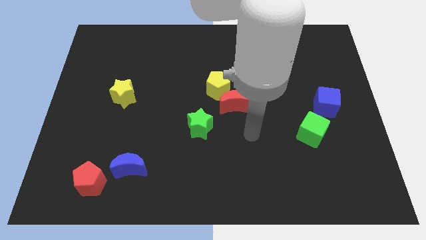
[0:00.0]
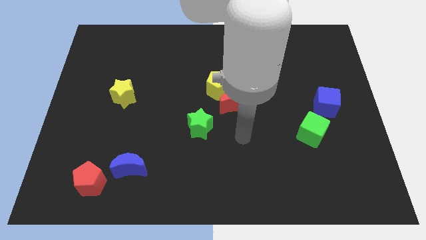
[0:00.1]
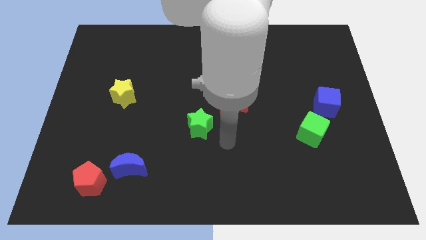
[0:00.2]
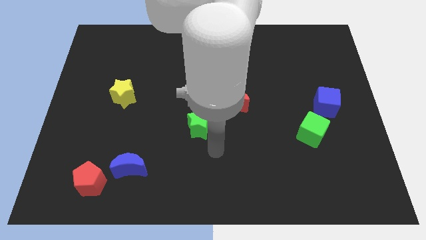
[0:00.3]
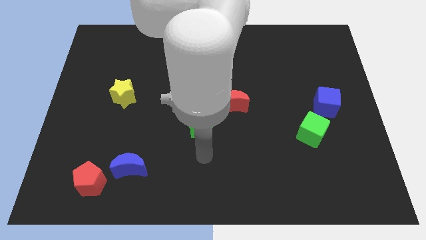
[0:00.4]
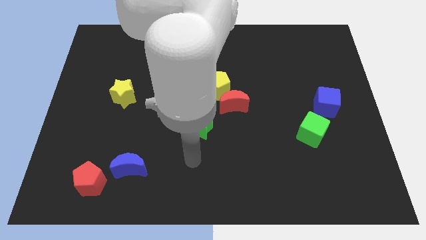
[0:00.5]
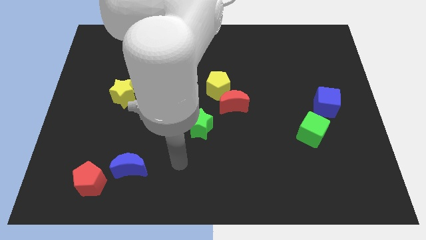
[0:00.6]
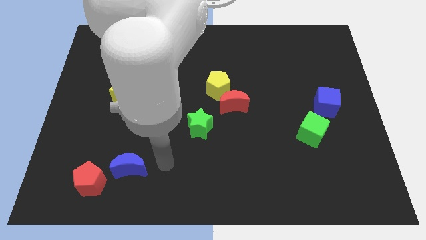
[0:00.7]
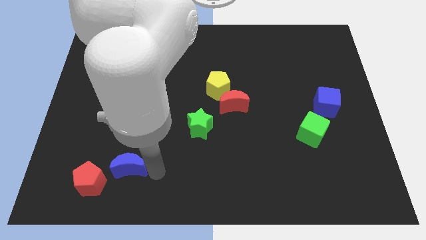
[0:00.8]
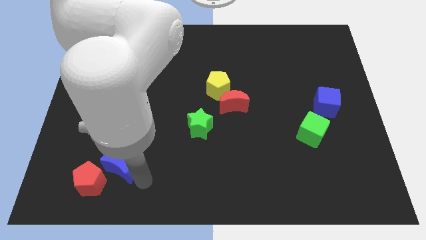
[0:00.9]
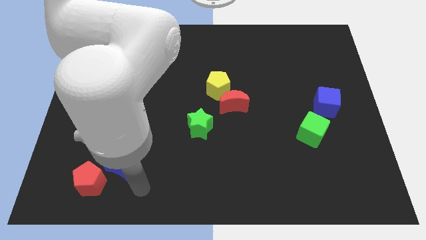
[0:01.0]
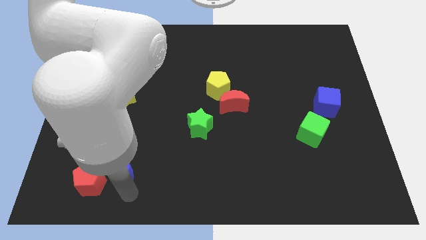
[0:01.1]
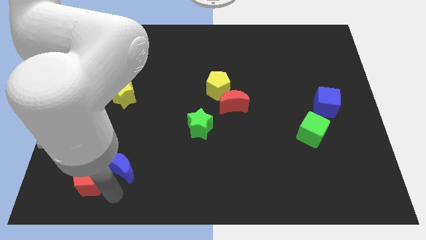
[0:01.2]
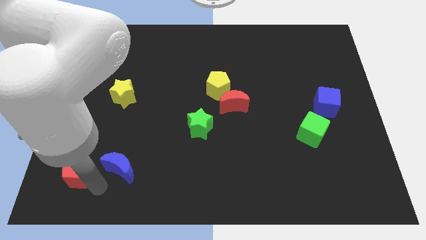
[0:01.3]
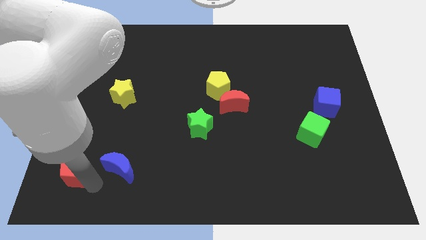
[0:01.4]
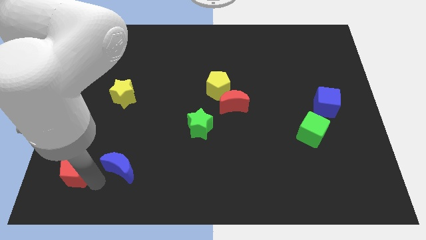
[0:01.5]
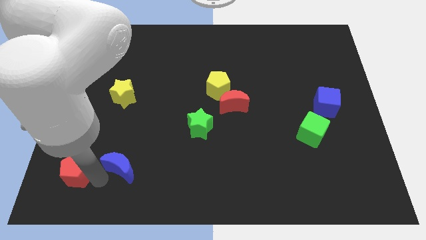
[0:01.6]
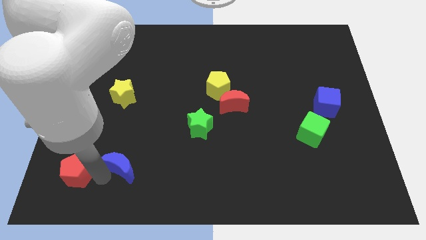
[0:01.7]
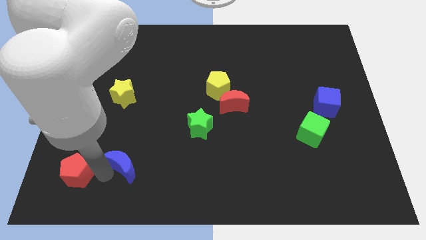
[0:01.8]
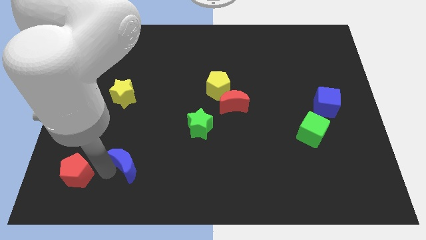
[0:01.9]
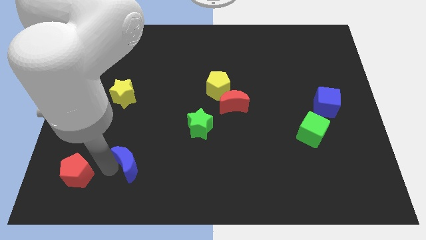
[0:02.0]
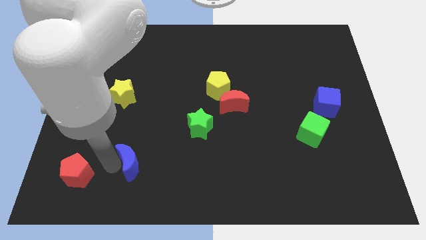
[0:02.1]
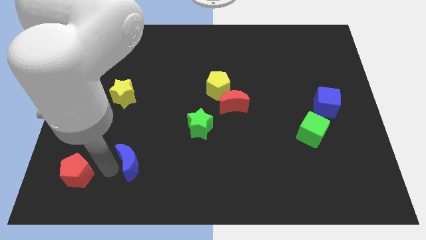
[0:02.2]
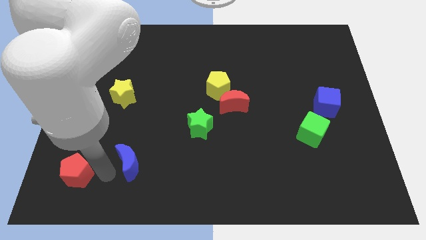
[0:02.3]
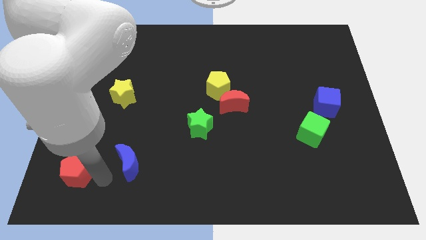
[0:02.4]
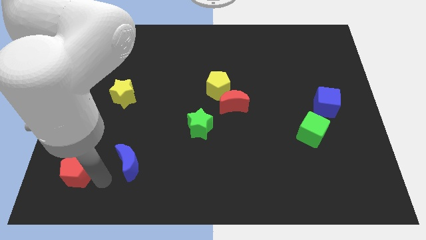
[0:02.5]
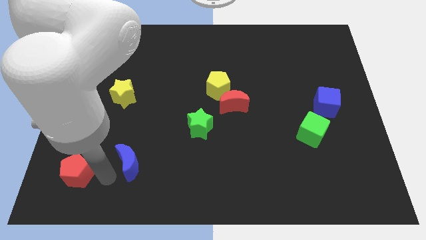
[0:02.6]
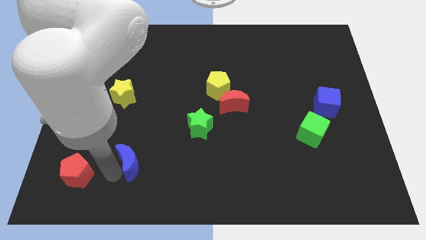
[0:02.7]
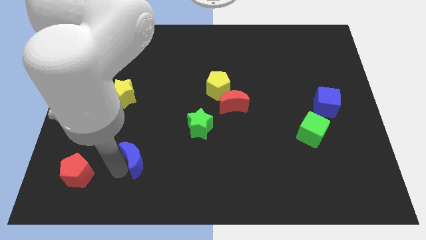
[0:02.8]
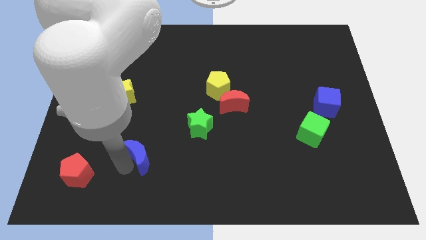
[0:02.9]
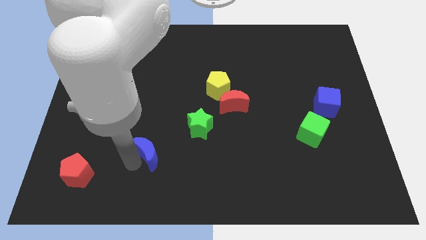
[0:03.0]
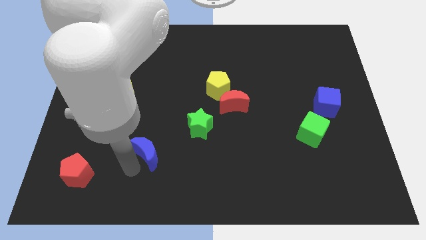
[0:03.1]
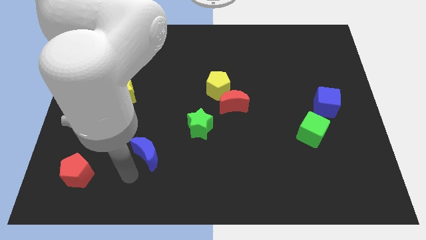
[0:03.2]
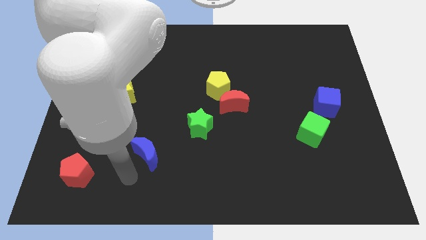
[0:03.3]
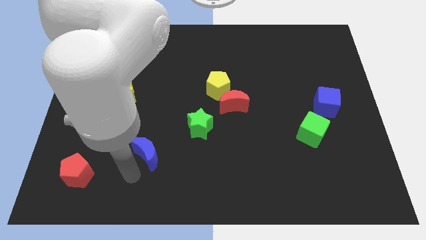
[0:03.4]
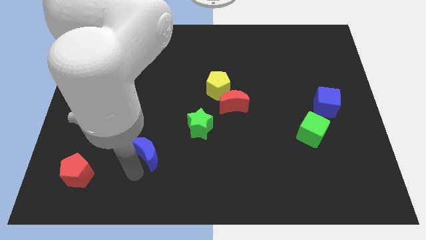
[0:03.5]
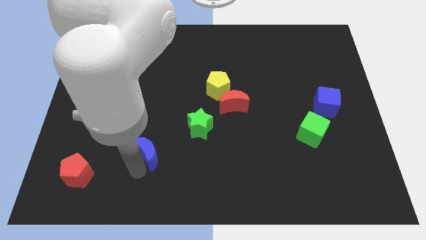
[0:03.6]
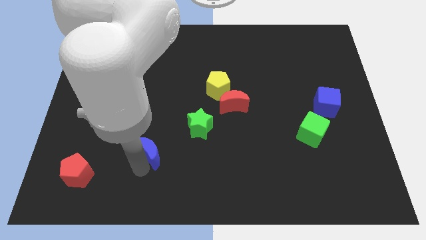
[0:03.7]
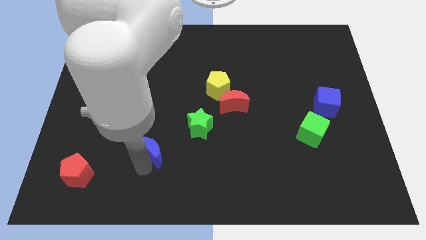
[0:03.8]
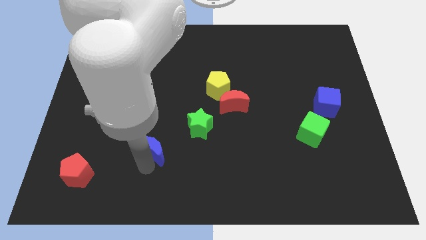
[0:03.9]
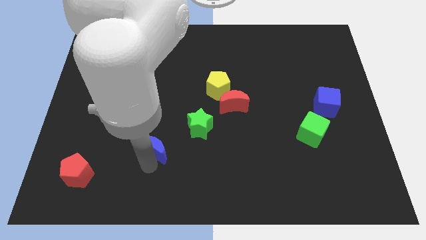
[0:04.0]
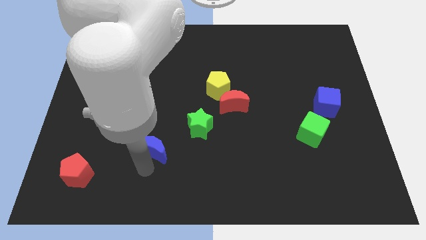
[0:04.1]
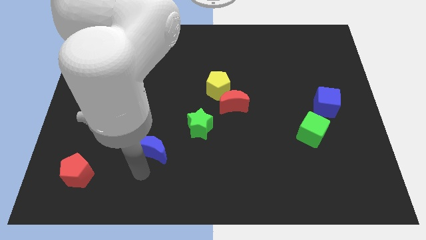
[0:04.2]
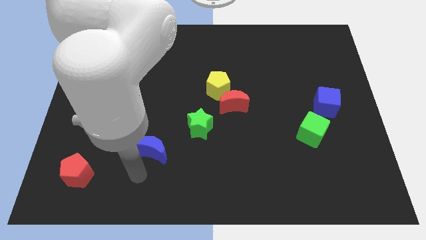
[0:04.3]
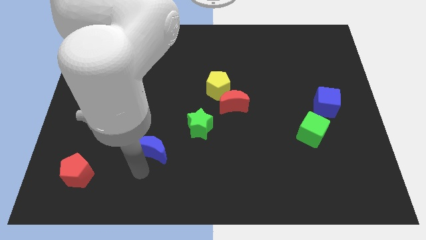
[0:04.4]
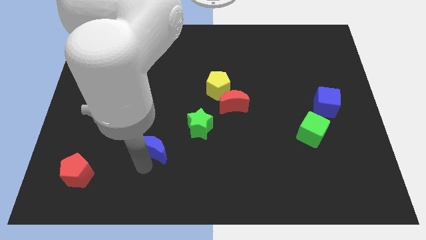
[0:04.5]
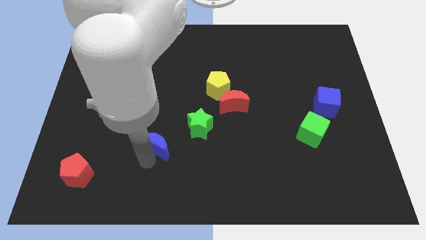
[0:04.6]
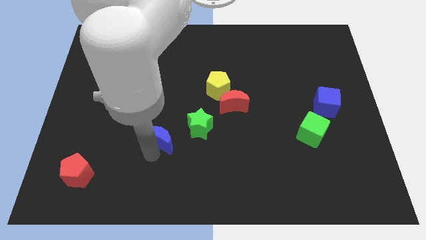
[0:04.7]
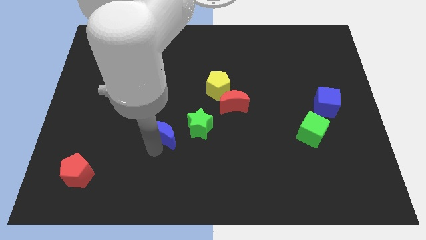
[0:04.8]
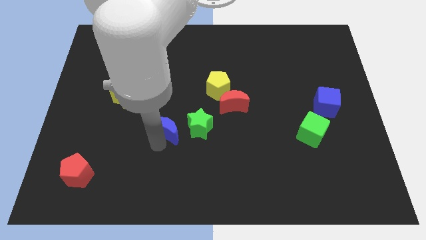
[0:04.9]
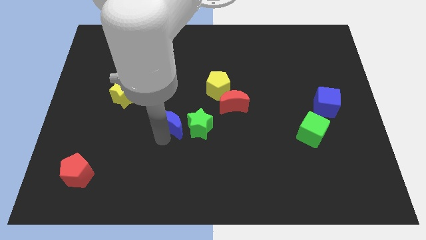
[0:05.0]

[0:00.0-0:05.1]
move the blue moon to the top left side of the green star

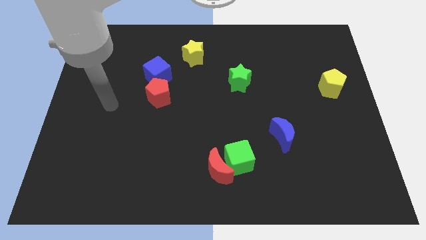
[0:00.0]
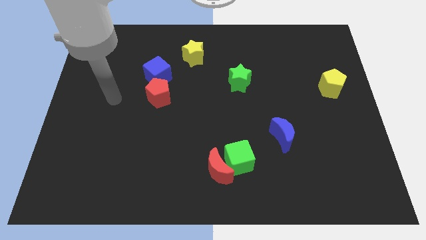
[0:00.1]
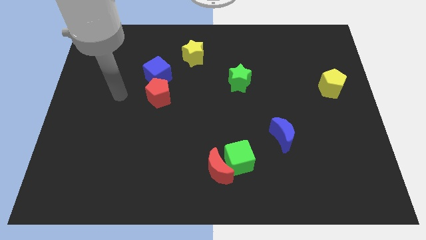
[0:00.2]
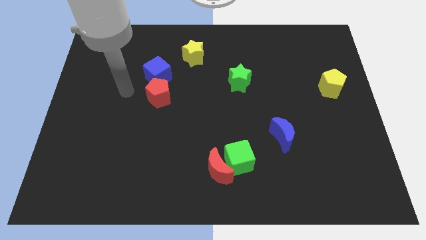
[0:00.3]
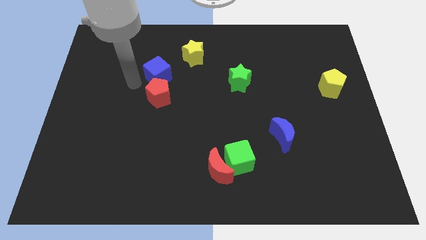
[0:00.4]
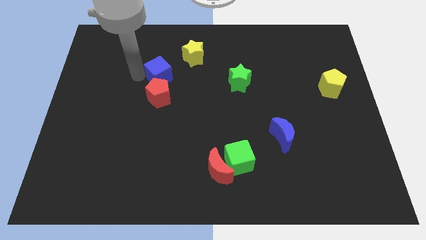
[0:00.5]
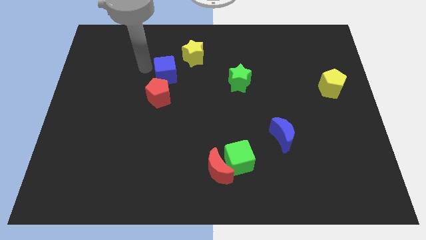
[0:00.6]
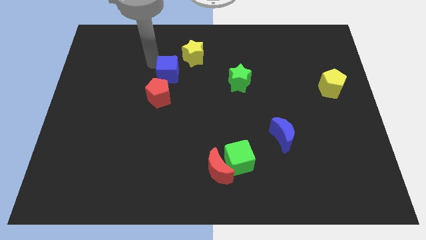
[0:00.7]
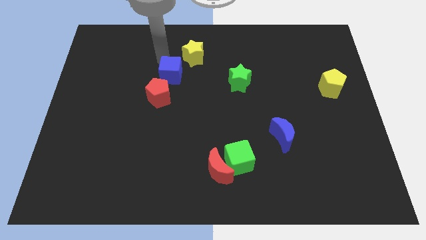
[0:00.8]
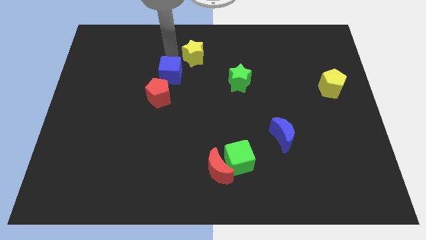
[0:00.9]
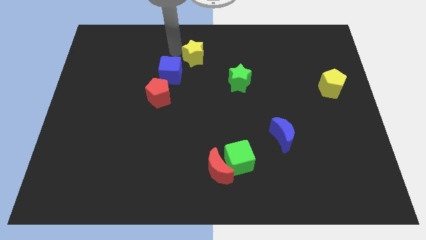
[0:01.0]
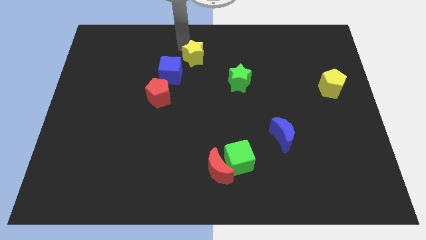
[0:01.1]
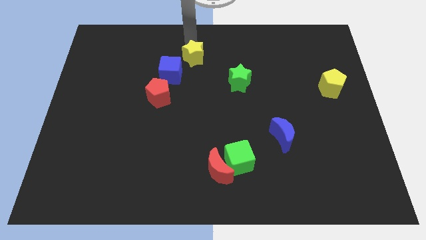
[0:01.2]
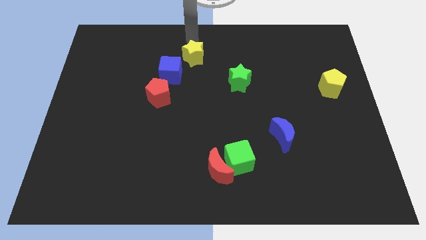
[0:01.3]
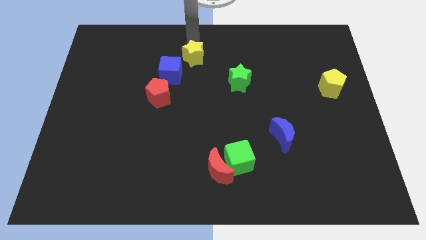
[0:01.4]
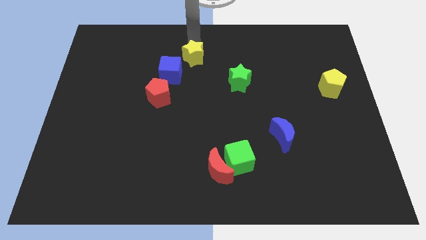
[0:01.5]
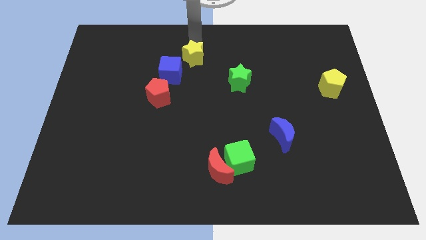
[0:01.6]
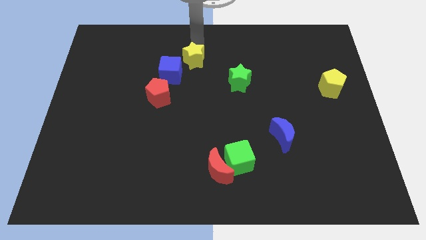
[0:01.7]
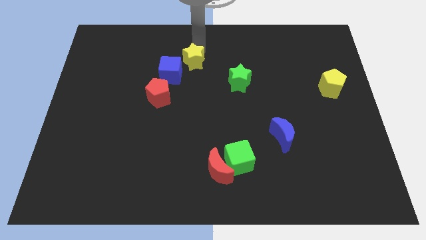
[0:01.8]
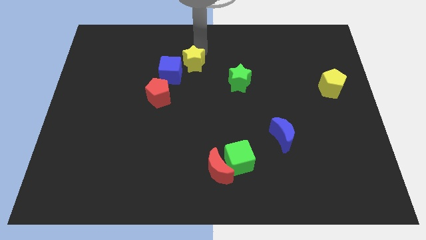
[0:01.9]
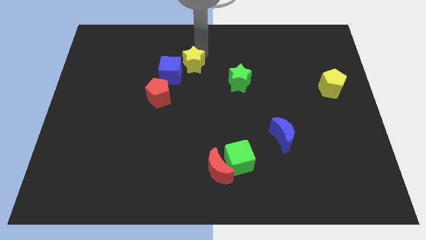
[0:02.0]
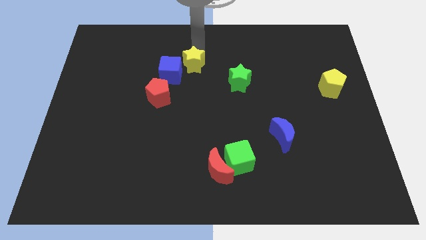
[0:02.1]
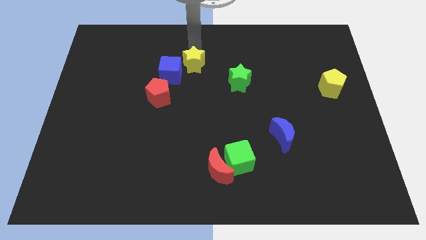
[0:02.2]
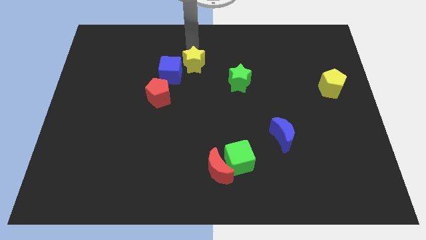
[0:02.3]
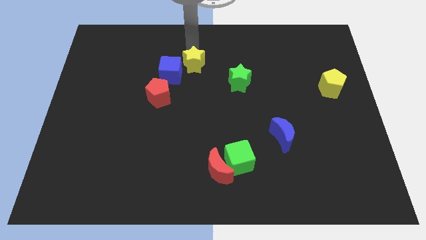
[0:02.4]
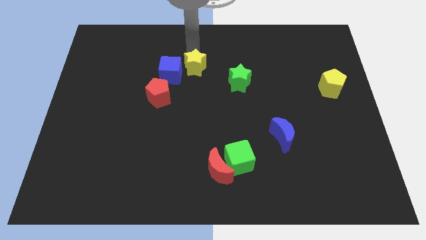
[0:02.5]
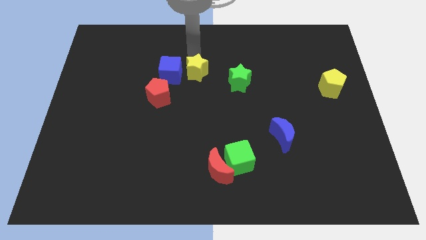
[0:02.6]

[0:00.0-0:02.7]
put the yellow star to the left side of the green star
